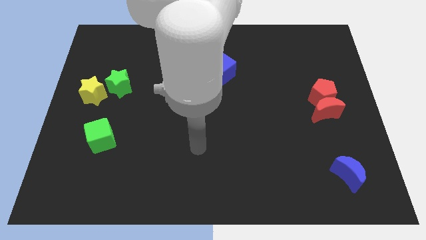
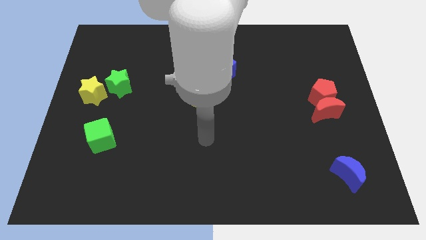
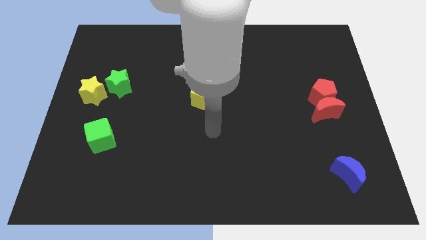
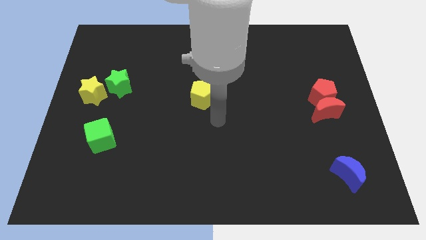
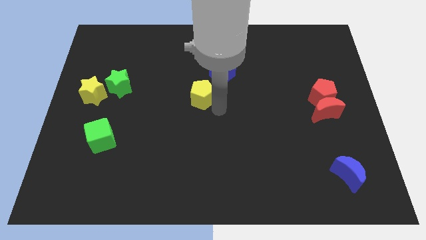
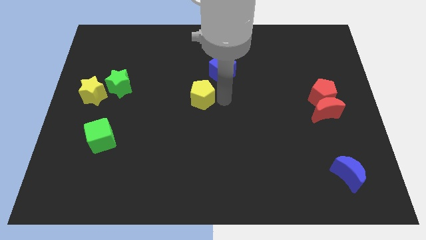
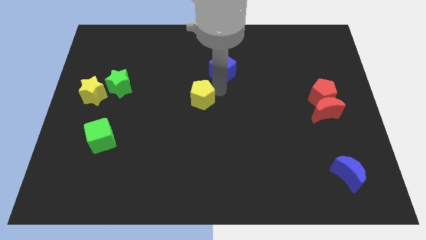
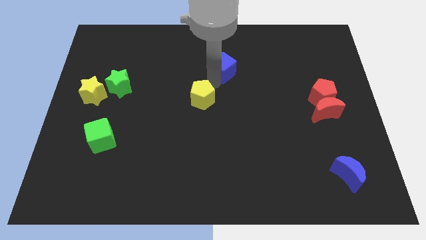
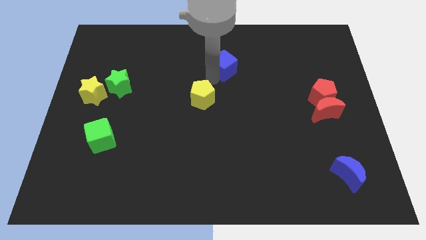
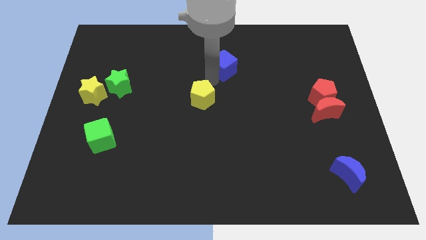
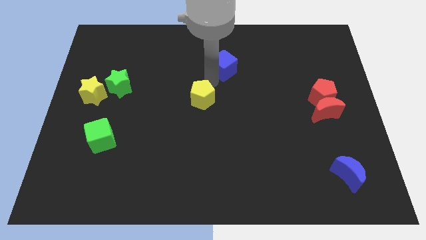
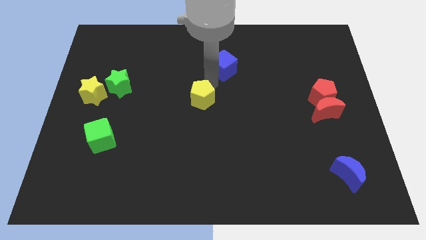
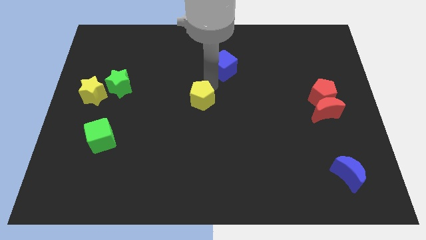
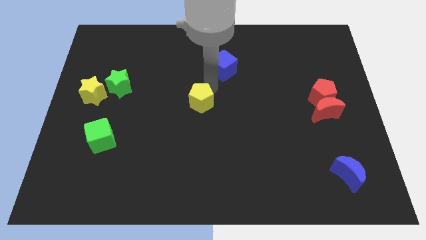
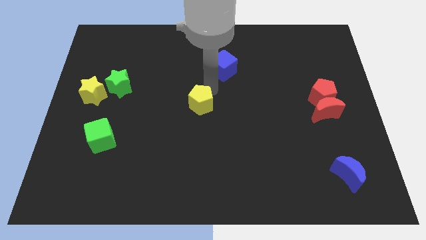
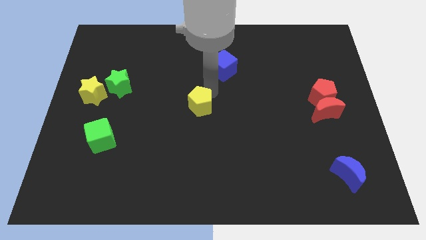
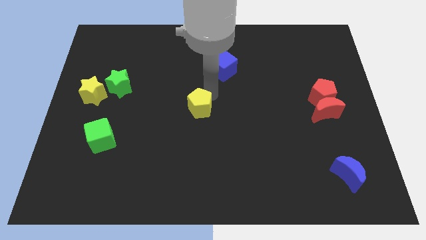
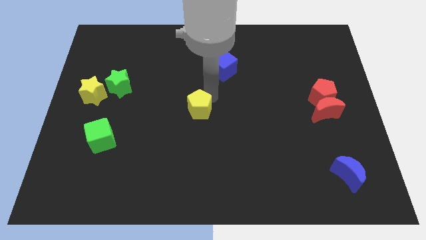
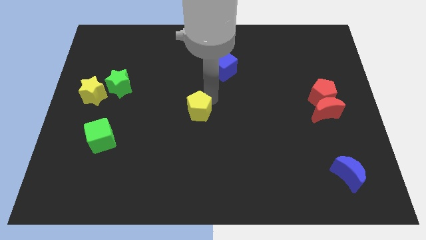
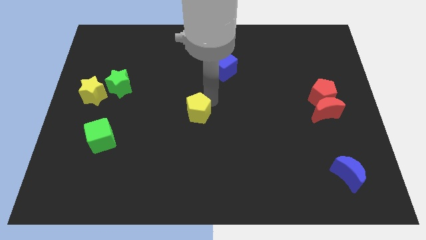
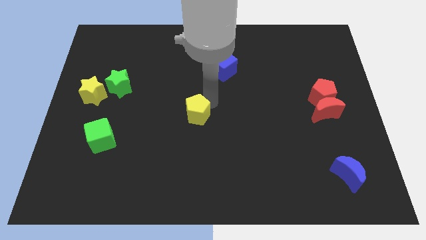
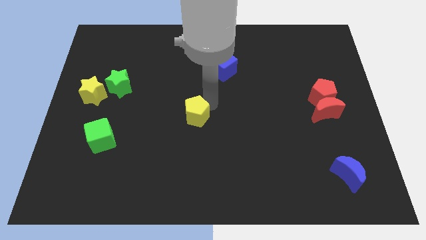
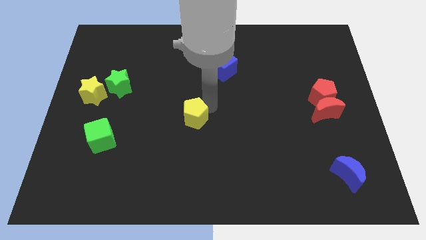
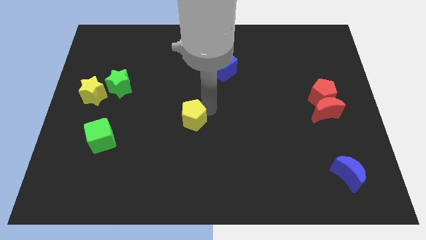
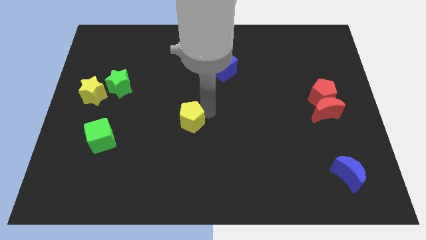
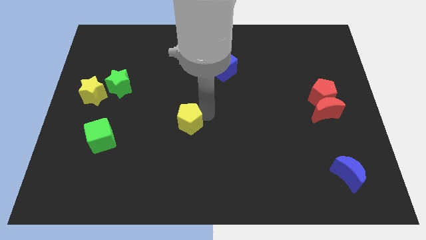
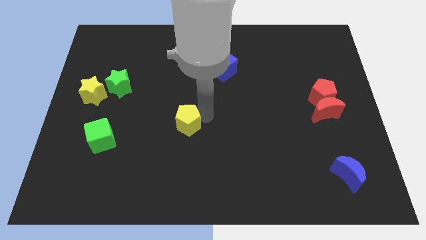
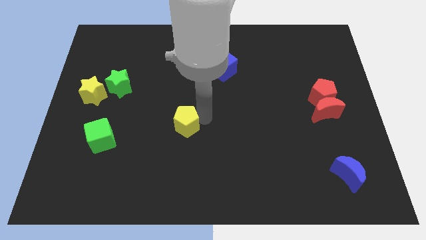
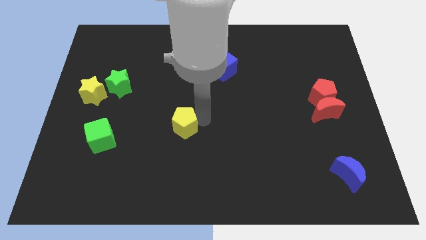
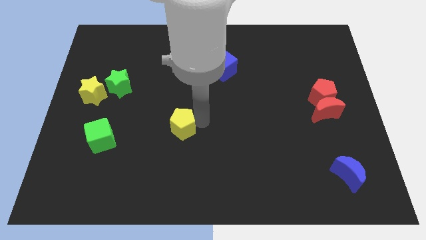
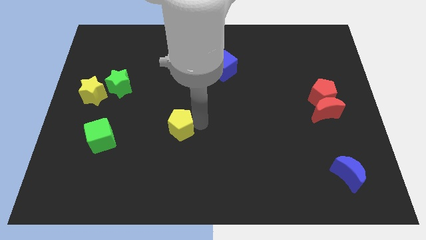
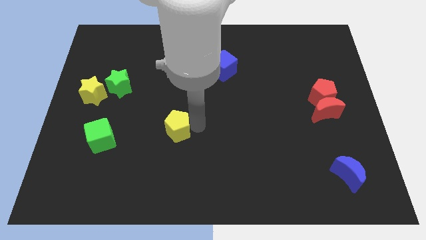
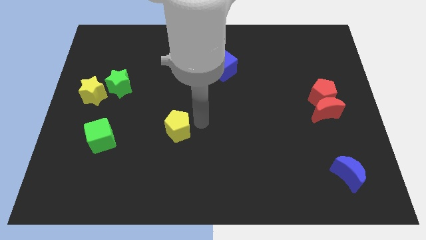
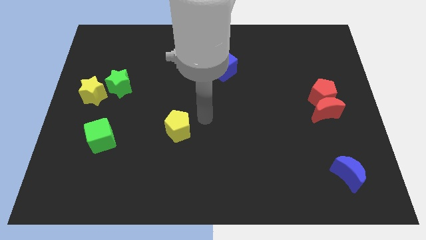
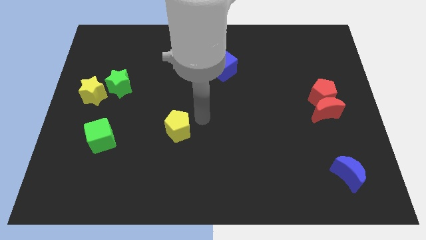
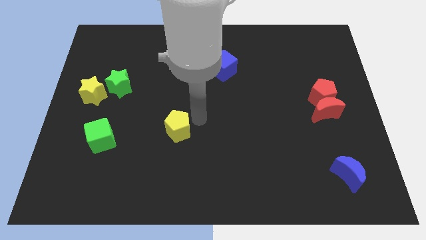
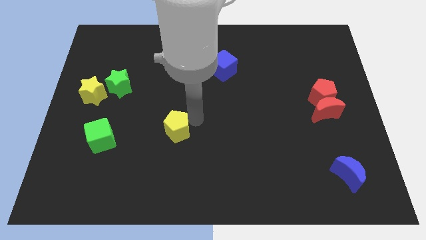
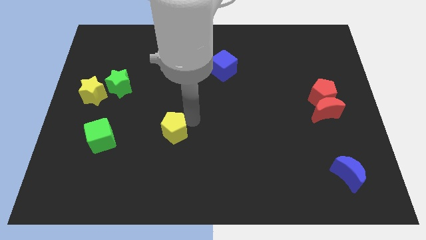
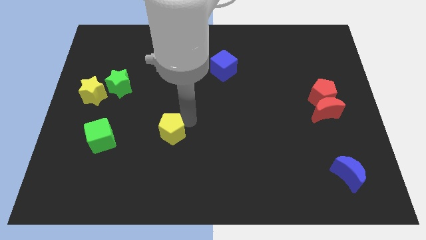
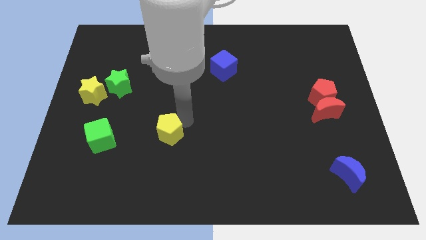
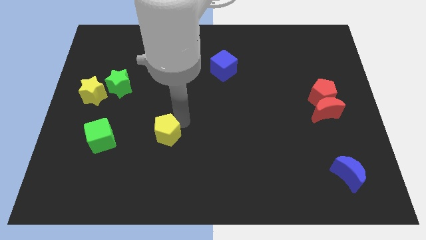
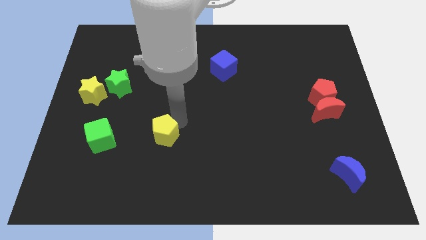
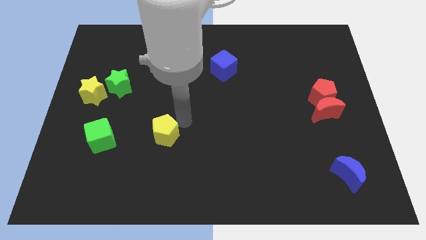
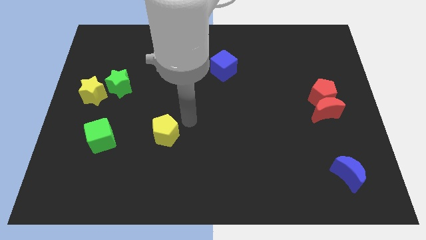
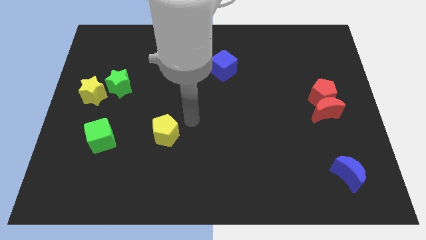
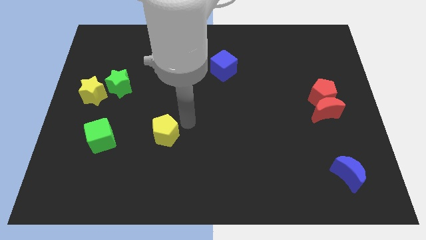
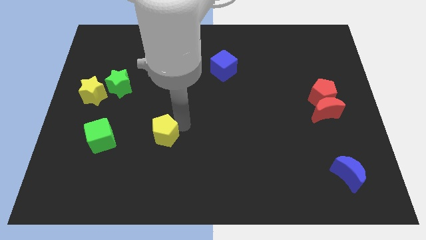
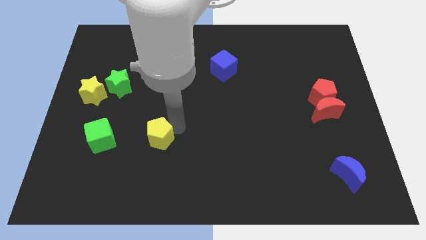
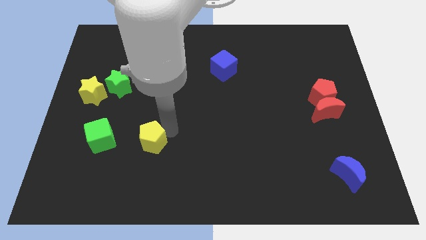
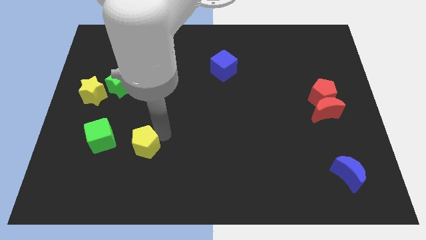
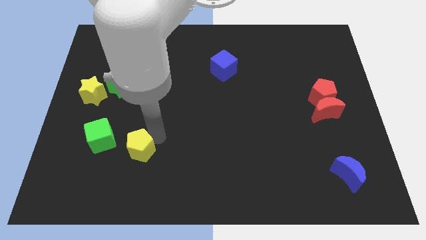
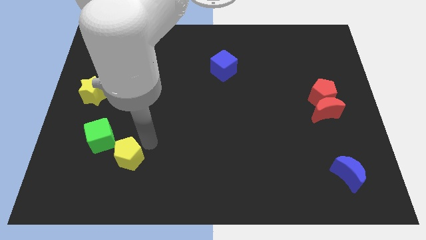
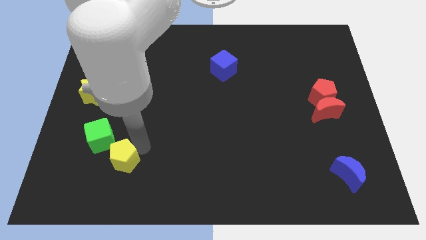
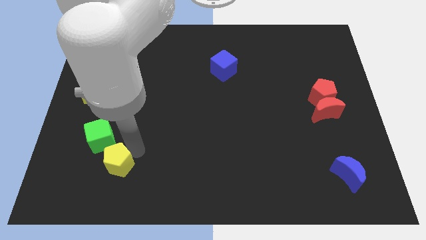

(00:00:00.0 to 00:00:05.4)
move the yellow pentagon to the bottom of the green cube

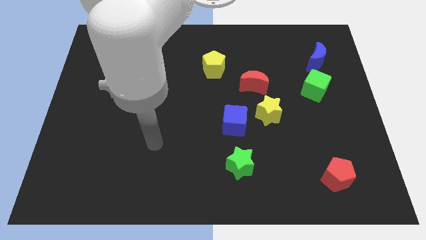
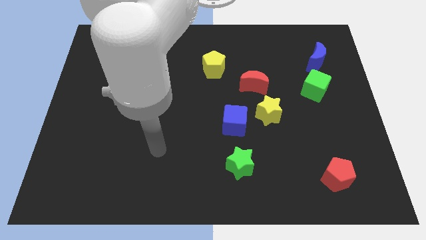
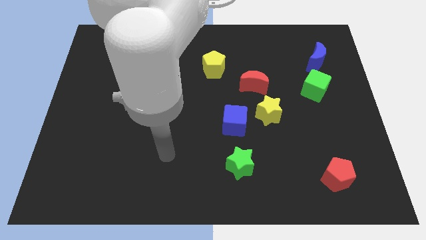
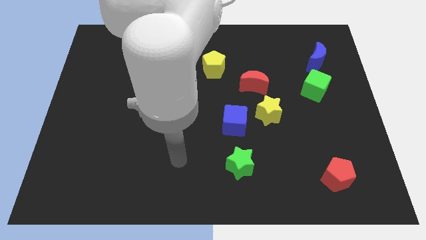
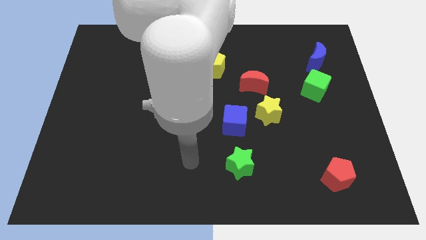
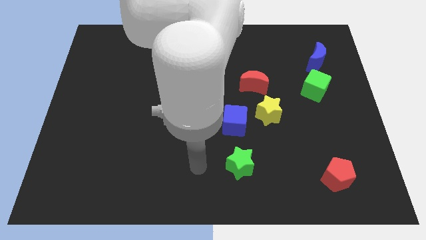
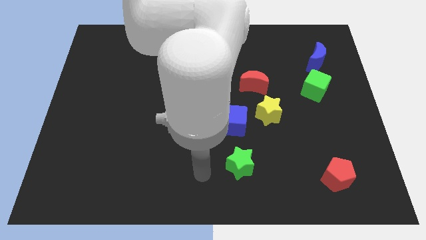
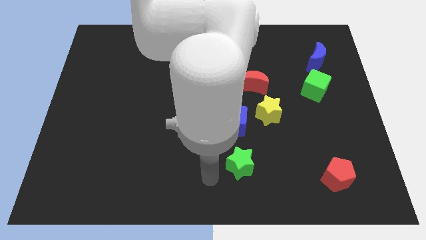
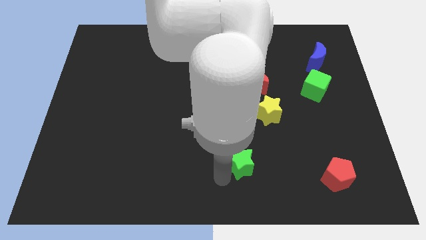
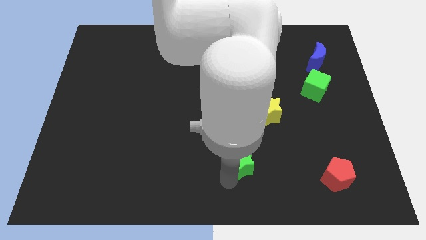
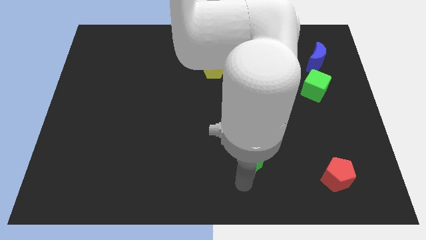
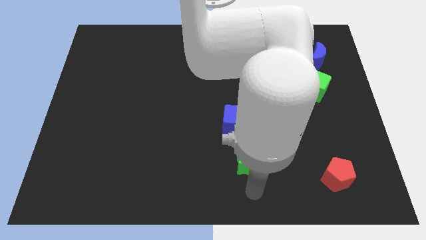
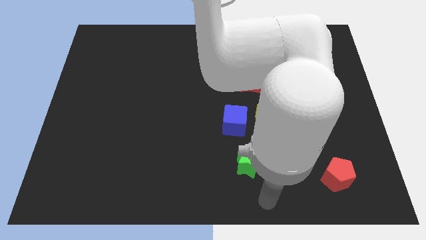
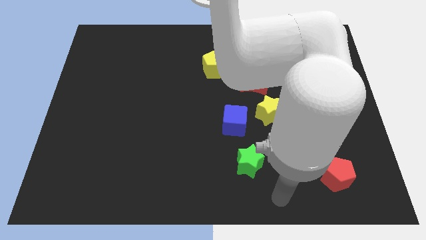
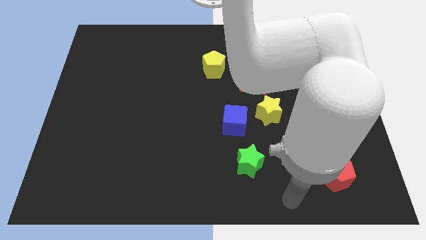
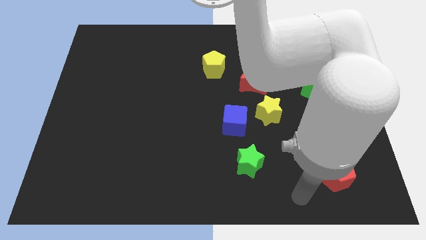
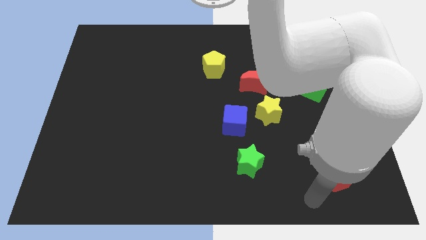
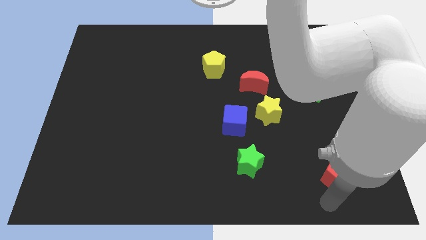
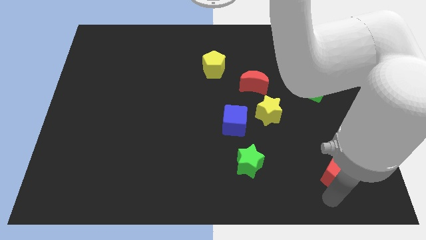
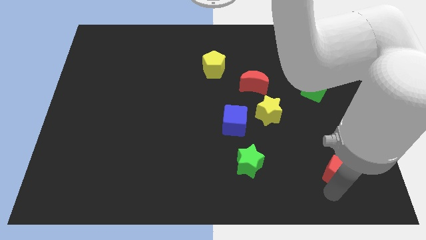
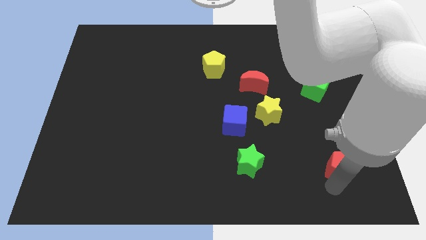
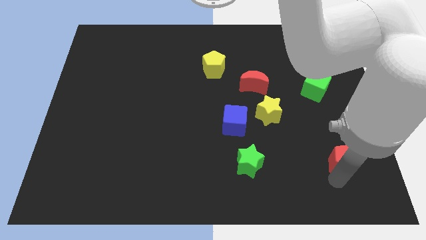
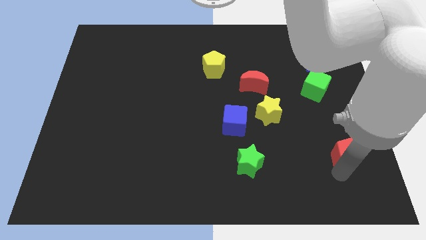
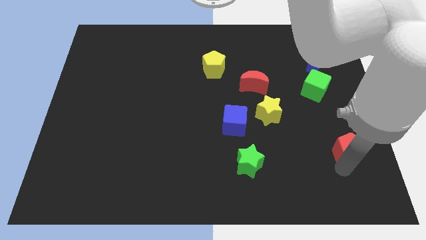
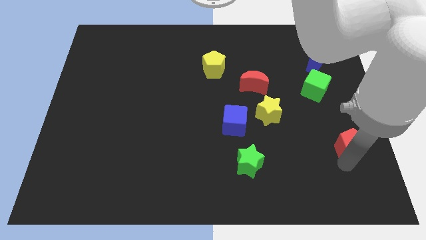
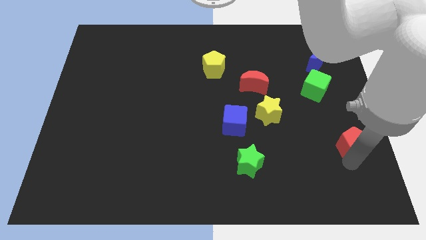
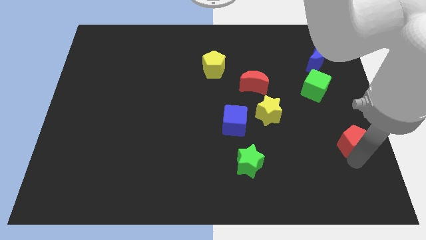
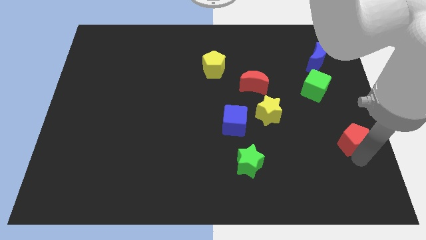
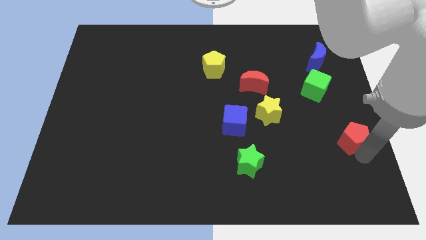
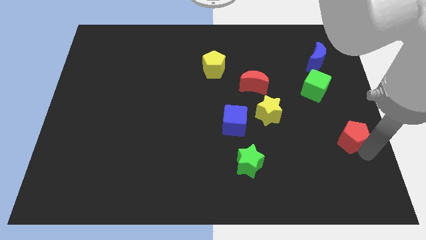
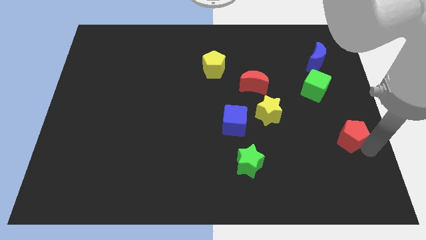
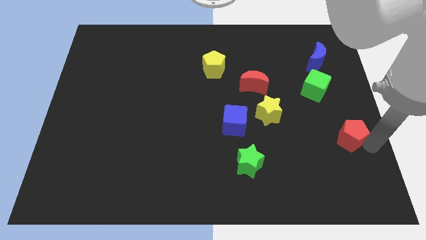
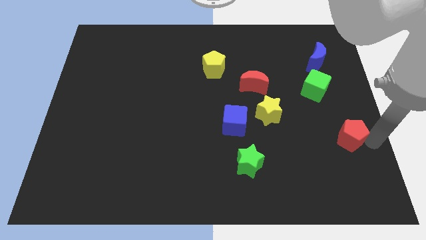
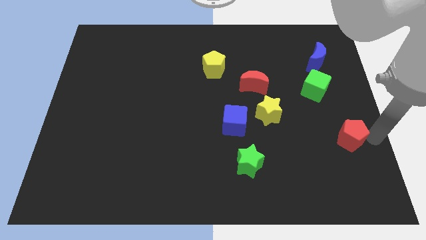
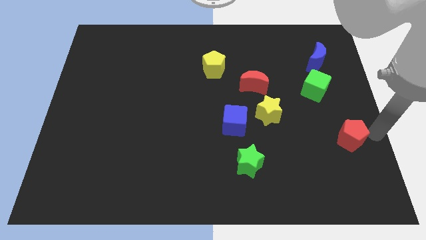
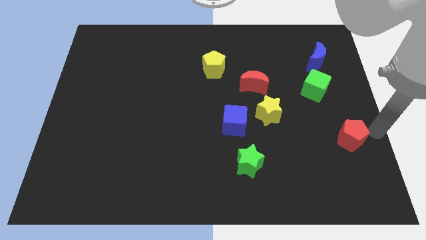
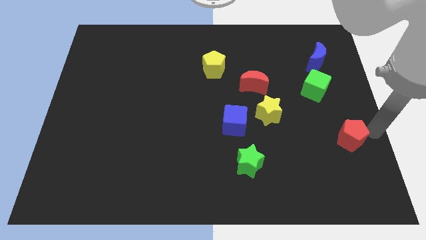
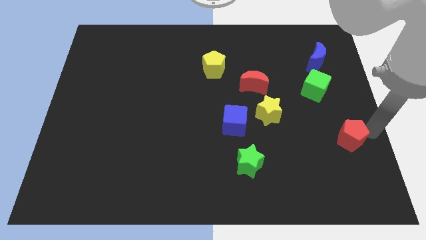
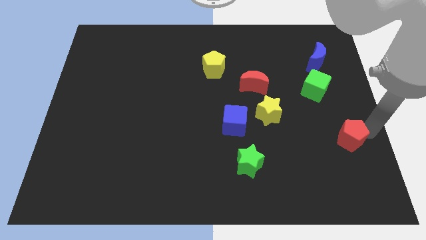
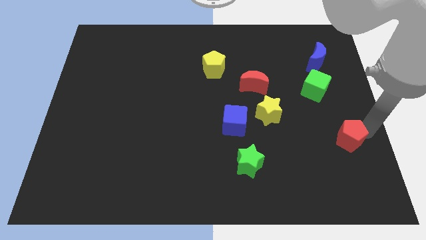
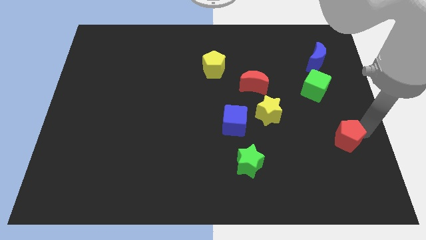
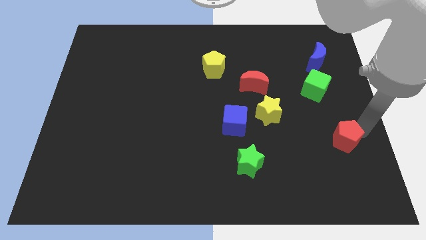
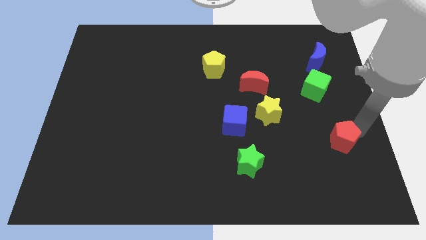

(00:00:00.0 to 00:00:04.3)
move the red pentagon to the bottom side of the green cube
